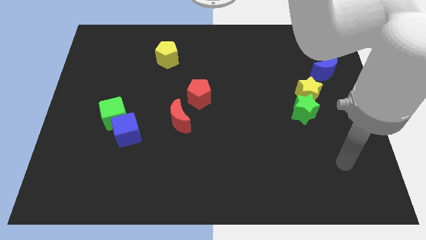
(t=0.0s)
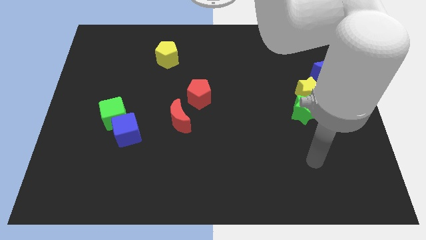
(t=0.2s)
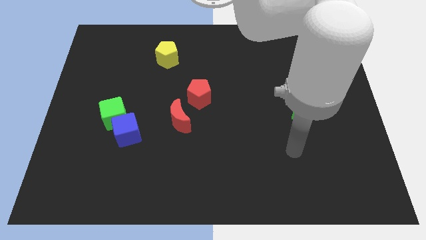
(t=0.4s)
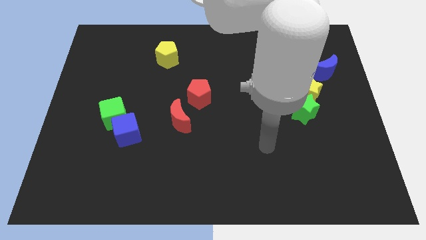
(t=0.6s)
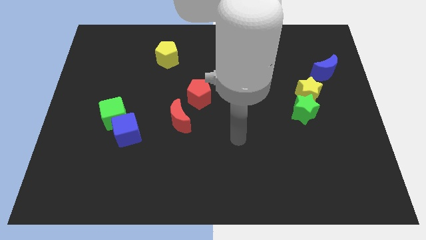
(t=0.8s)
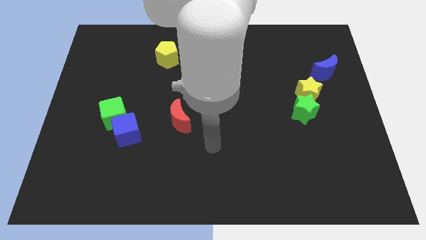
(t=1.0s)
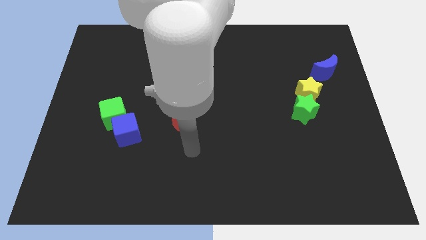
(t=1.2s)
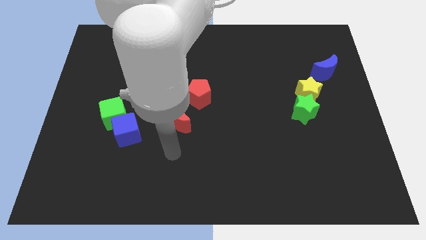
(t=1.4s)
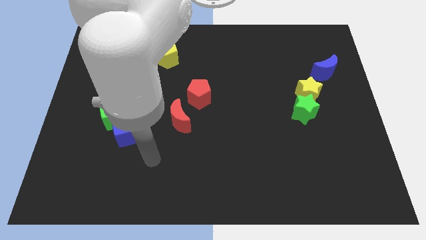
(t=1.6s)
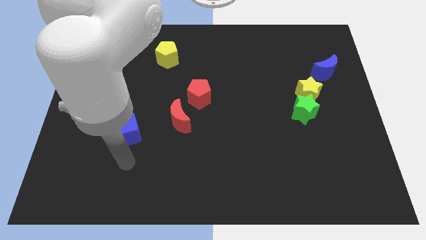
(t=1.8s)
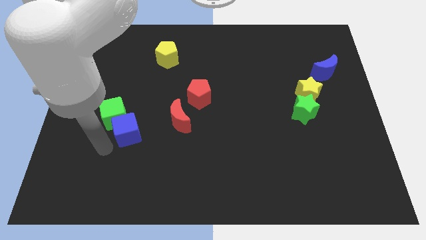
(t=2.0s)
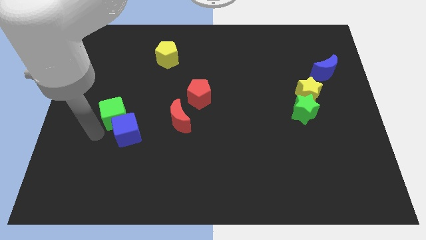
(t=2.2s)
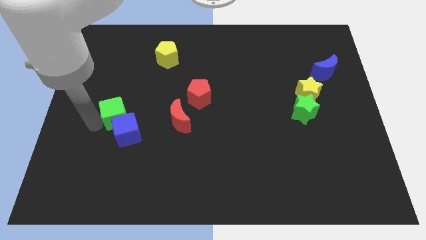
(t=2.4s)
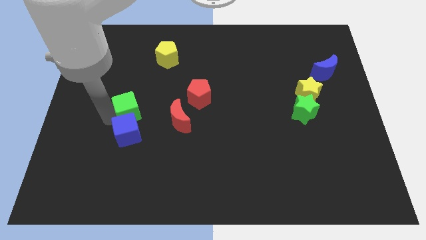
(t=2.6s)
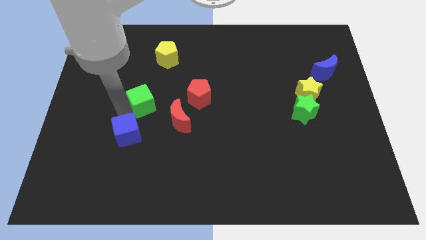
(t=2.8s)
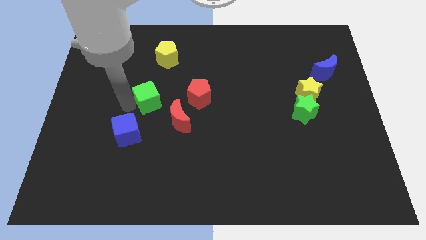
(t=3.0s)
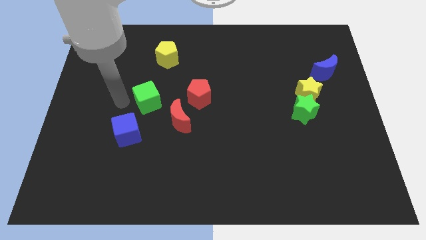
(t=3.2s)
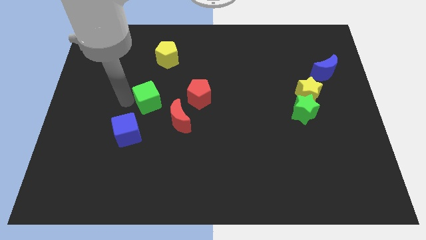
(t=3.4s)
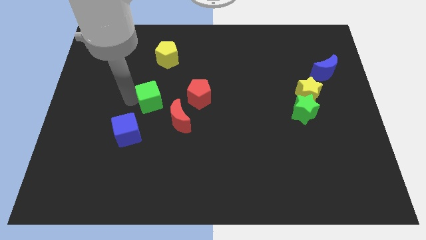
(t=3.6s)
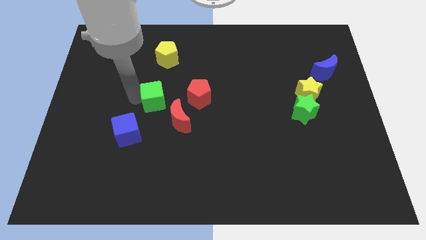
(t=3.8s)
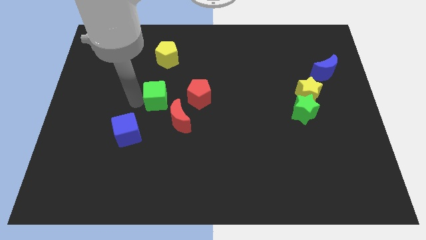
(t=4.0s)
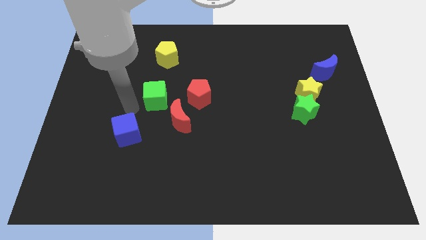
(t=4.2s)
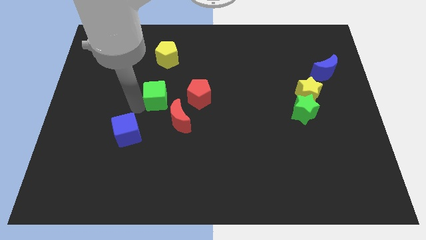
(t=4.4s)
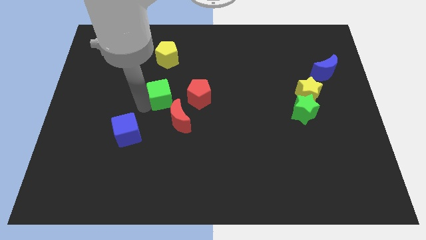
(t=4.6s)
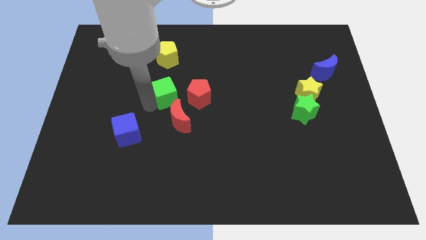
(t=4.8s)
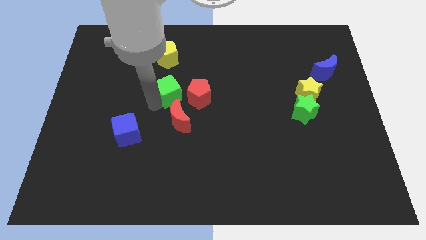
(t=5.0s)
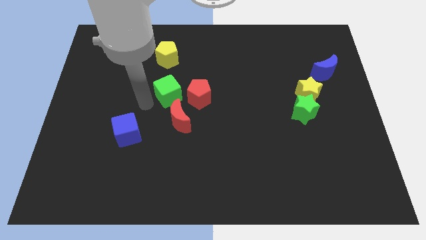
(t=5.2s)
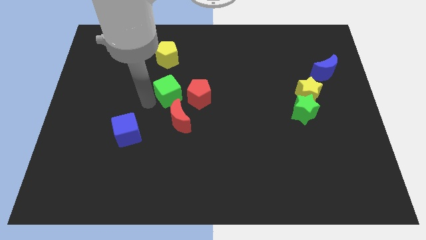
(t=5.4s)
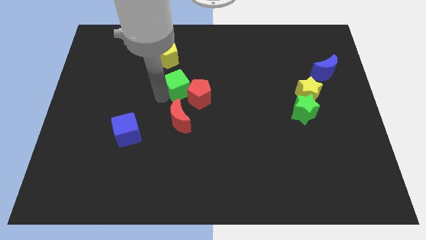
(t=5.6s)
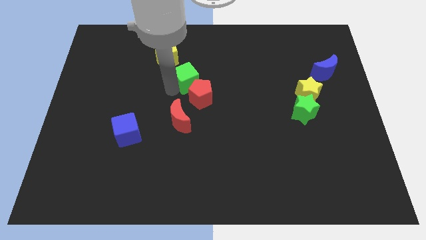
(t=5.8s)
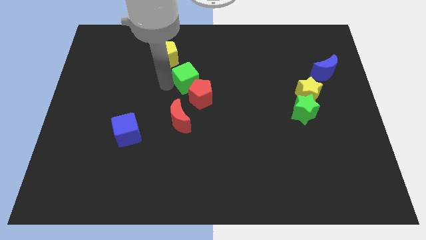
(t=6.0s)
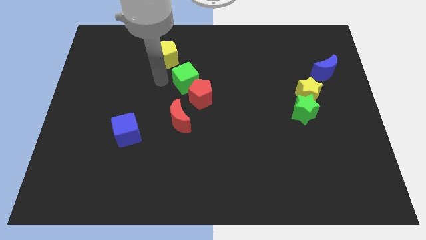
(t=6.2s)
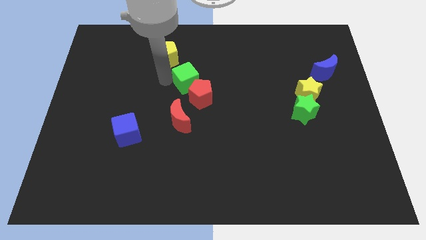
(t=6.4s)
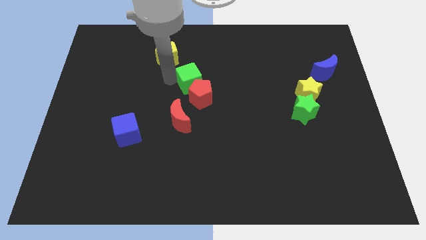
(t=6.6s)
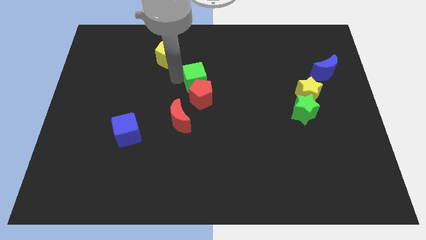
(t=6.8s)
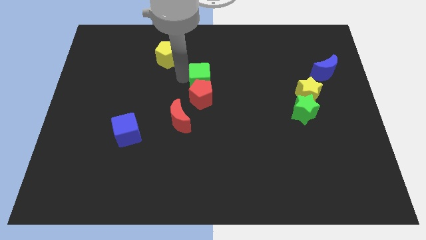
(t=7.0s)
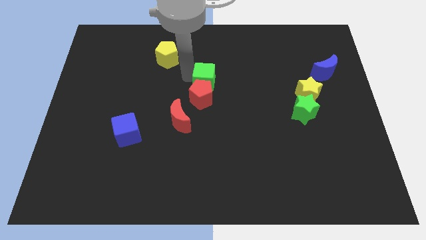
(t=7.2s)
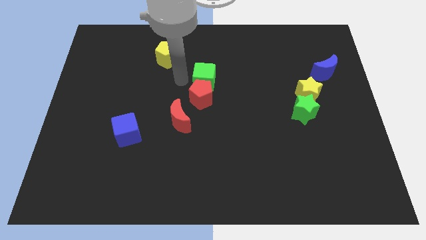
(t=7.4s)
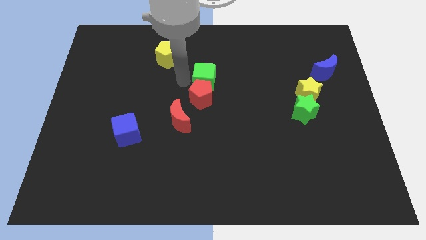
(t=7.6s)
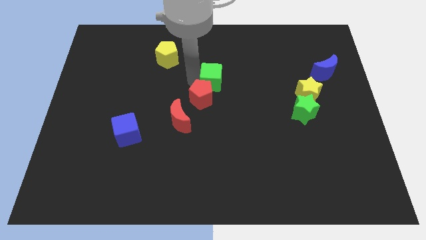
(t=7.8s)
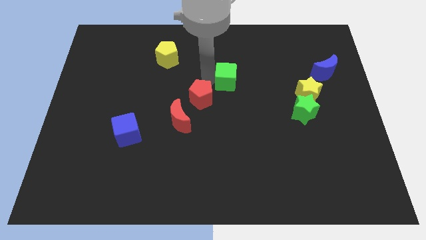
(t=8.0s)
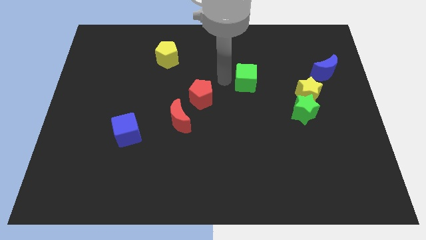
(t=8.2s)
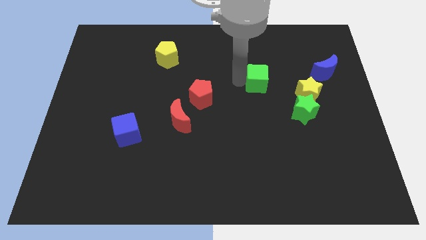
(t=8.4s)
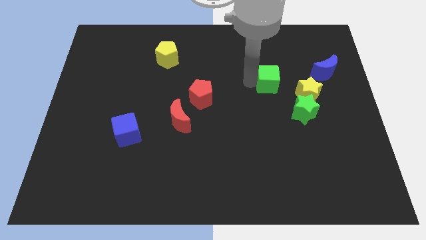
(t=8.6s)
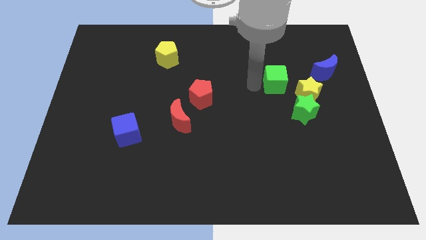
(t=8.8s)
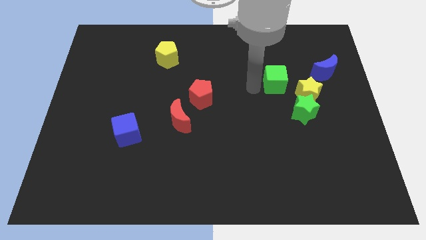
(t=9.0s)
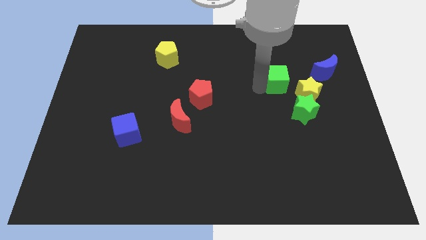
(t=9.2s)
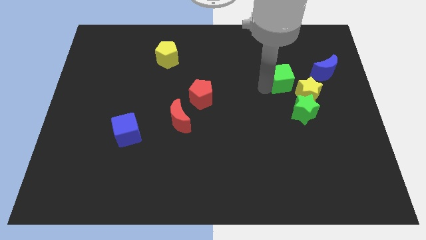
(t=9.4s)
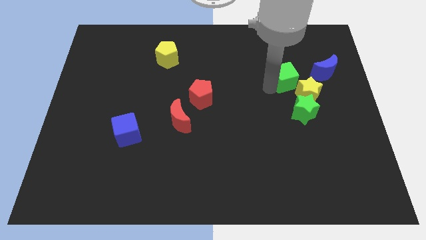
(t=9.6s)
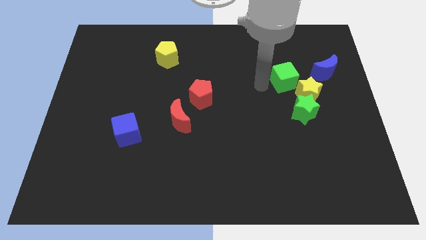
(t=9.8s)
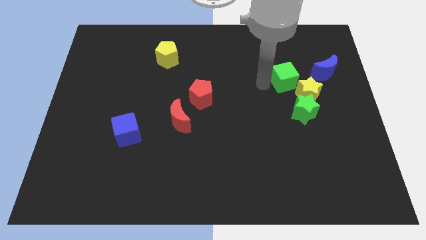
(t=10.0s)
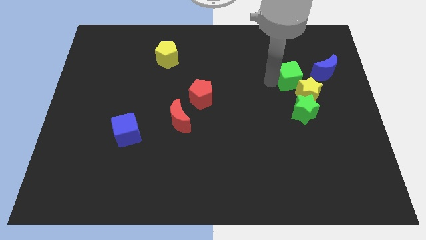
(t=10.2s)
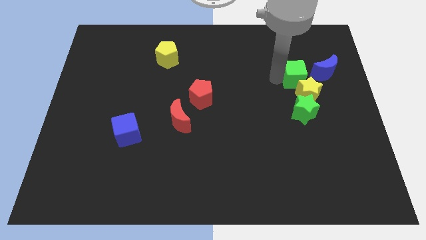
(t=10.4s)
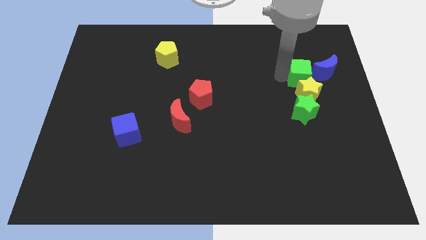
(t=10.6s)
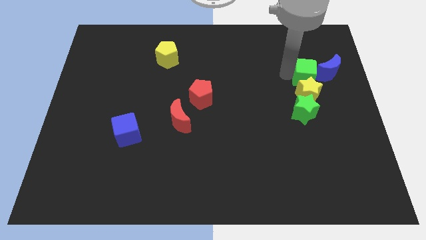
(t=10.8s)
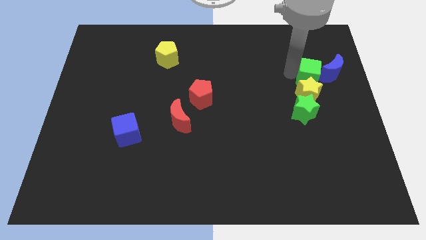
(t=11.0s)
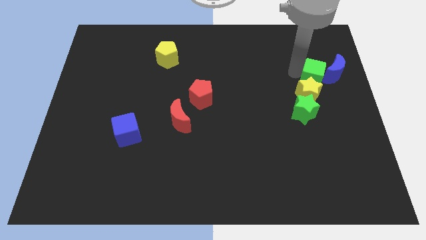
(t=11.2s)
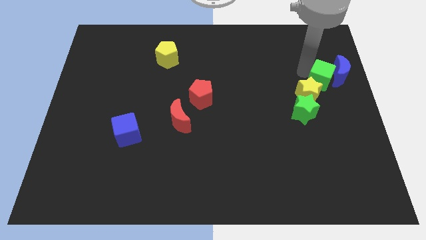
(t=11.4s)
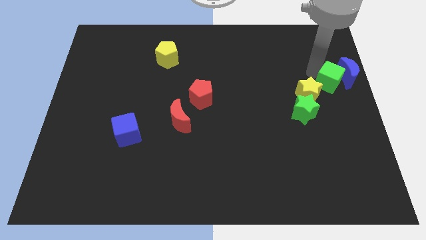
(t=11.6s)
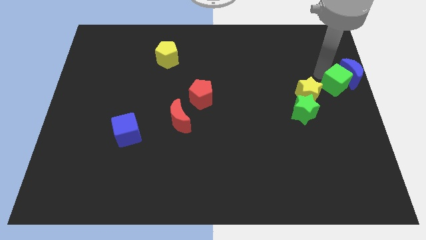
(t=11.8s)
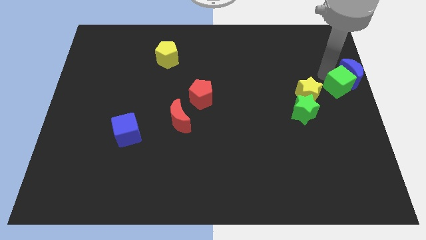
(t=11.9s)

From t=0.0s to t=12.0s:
move the green cube to the bottom side of the blue moon

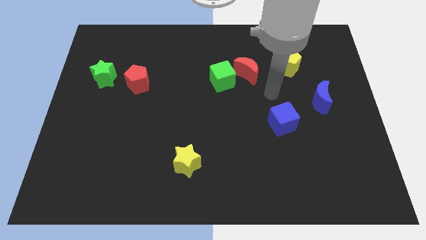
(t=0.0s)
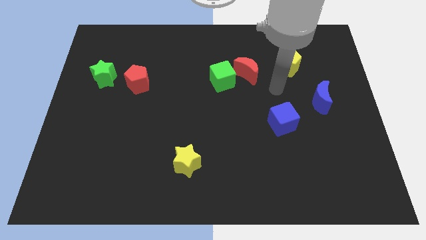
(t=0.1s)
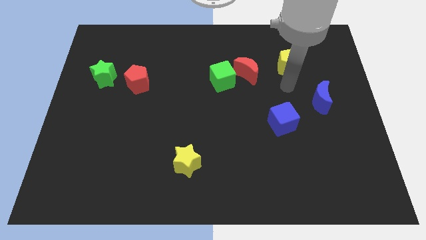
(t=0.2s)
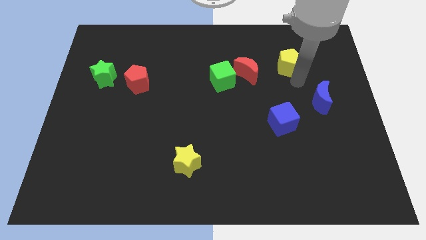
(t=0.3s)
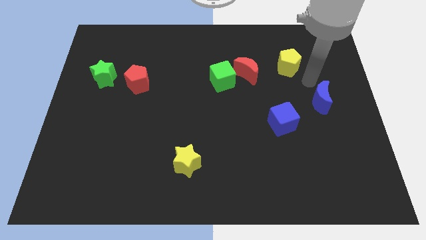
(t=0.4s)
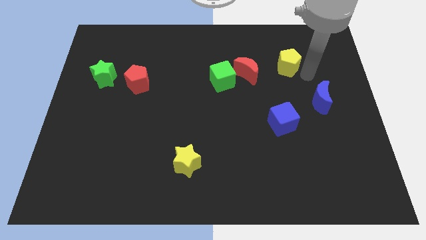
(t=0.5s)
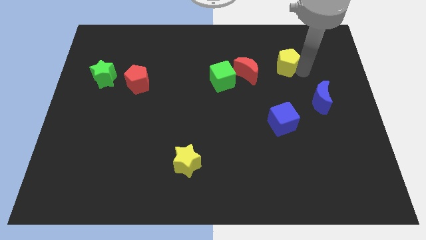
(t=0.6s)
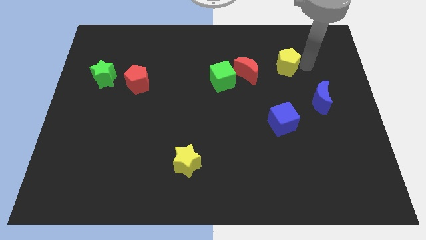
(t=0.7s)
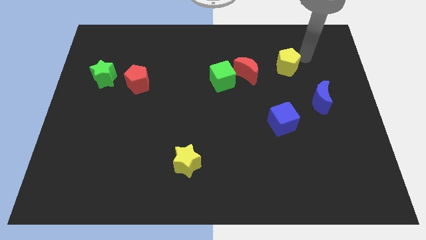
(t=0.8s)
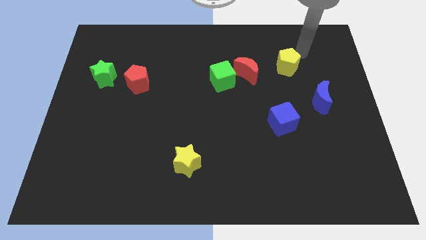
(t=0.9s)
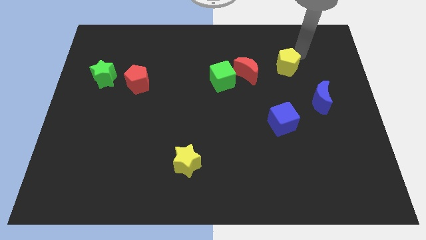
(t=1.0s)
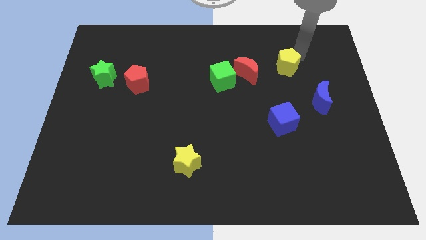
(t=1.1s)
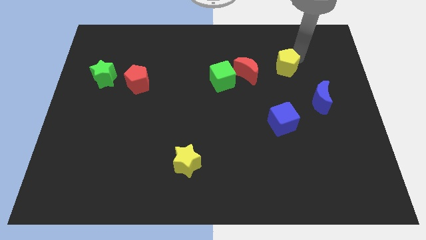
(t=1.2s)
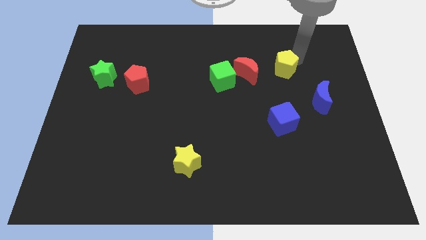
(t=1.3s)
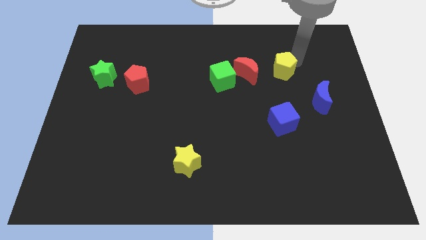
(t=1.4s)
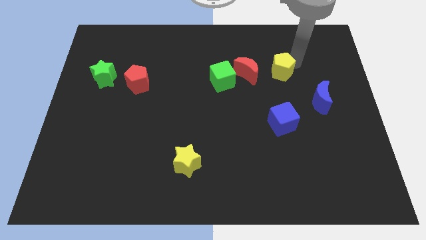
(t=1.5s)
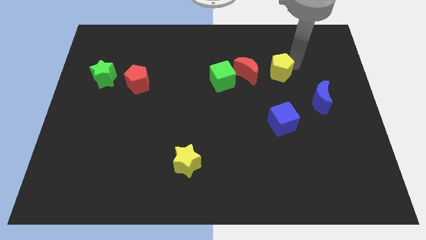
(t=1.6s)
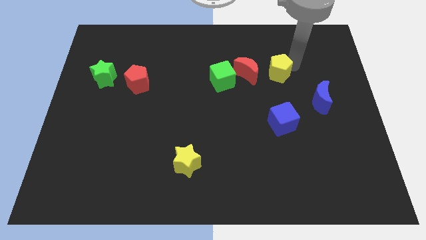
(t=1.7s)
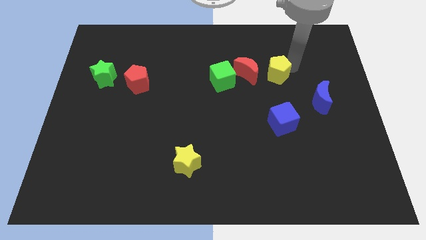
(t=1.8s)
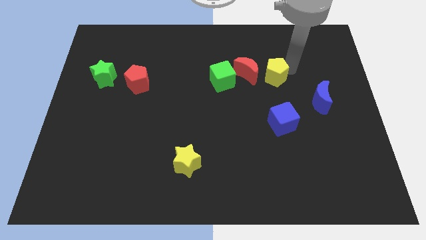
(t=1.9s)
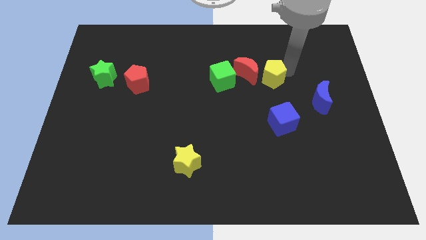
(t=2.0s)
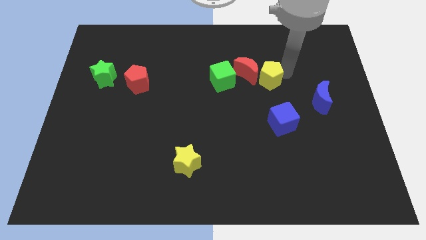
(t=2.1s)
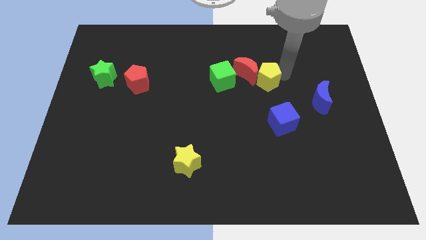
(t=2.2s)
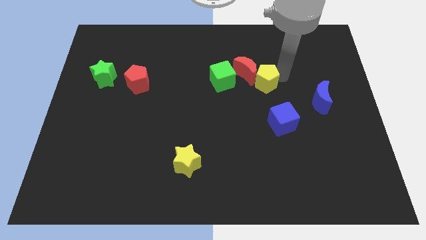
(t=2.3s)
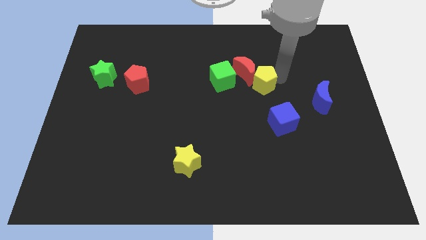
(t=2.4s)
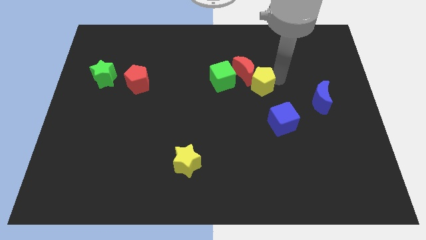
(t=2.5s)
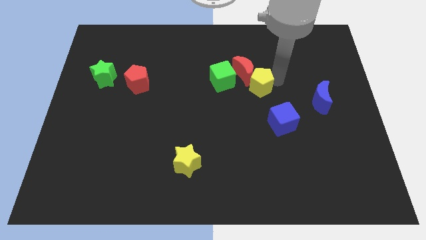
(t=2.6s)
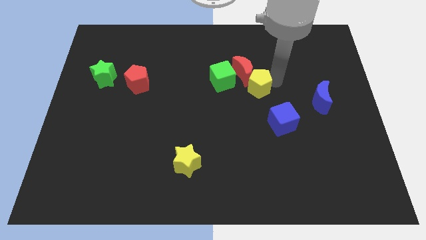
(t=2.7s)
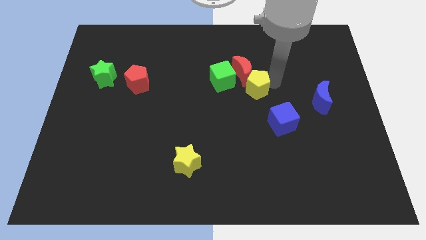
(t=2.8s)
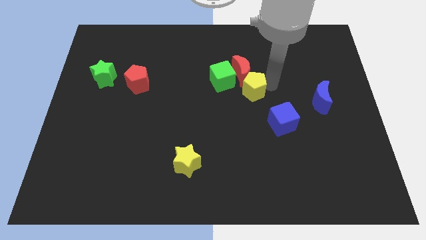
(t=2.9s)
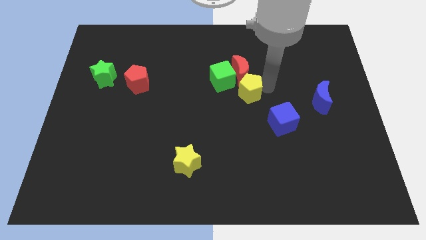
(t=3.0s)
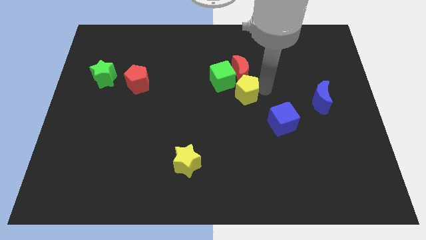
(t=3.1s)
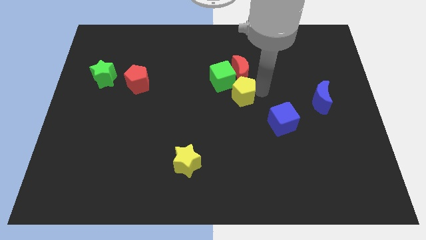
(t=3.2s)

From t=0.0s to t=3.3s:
push the yellow pentagon to the bottom side of the green cube
